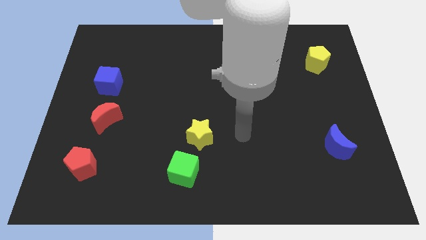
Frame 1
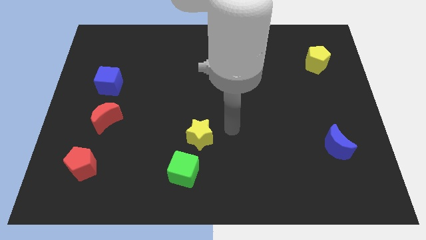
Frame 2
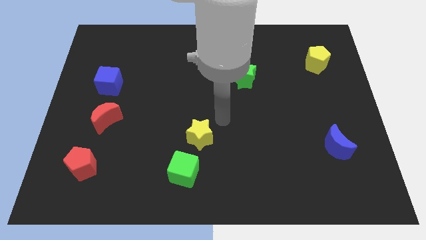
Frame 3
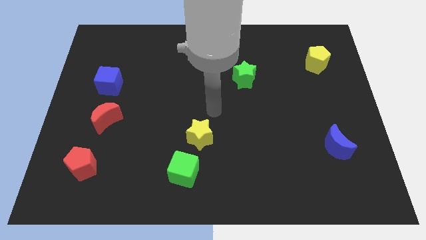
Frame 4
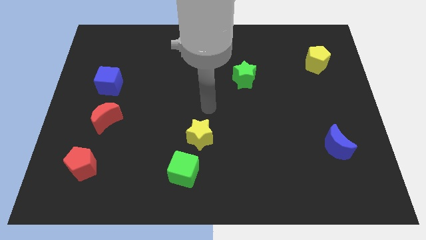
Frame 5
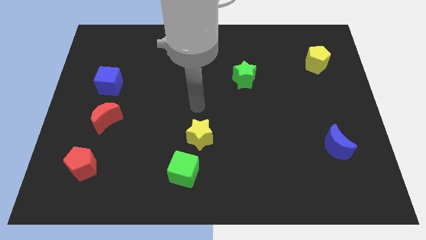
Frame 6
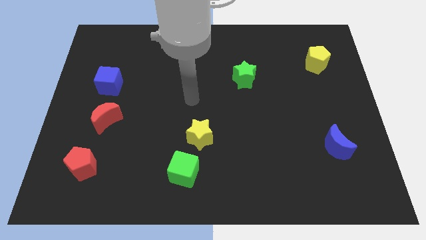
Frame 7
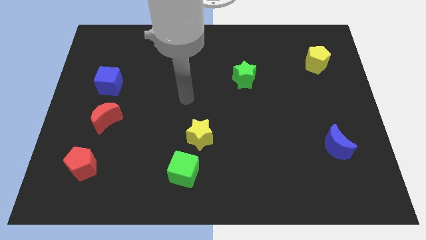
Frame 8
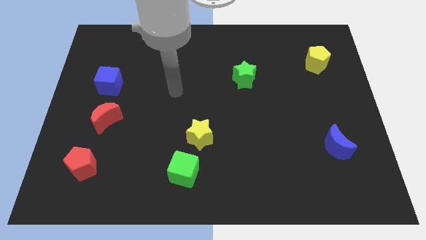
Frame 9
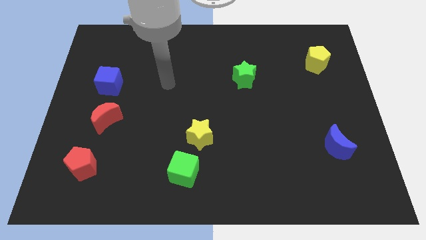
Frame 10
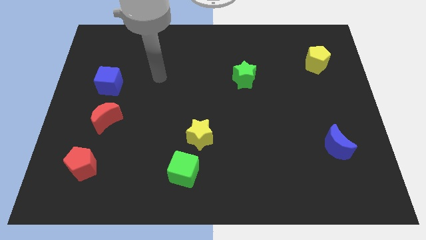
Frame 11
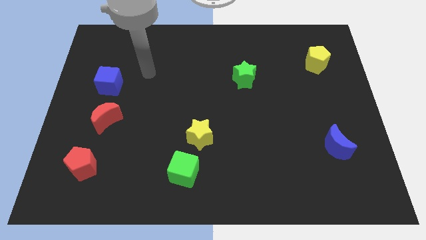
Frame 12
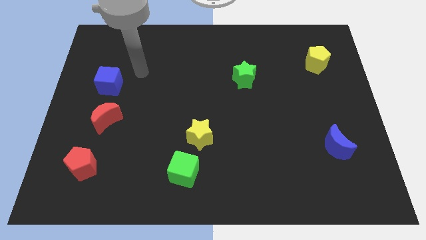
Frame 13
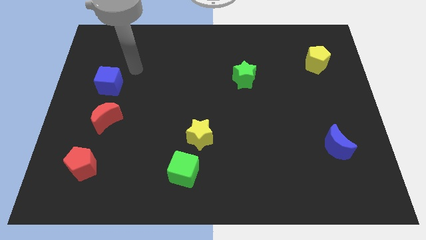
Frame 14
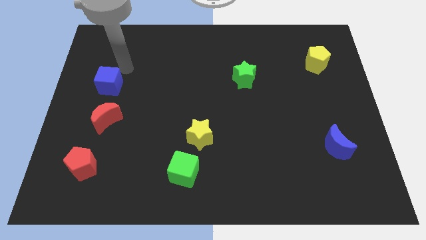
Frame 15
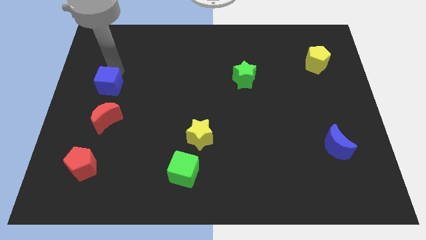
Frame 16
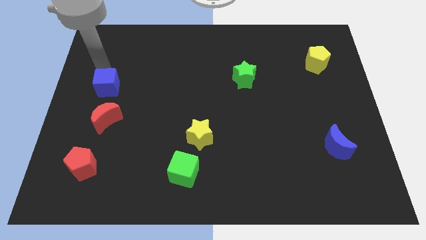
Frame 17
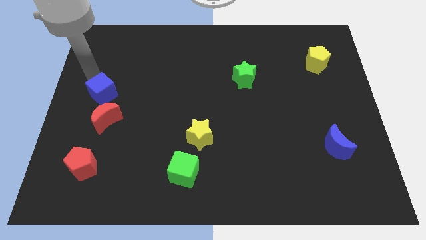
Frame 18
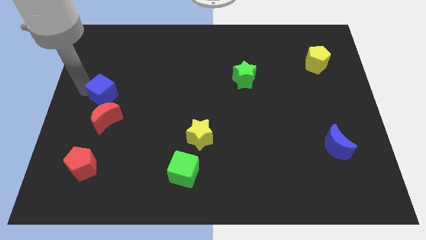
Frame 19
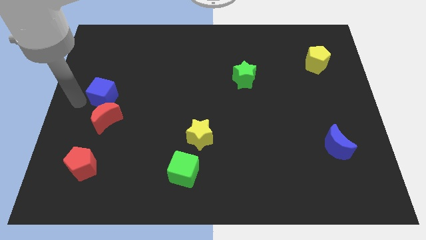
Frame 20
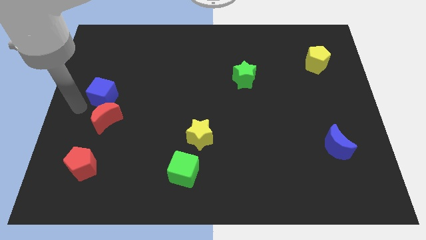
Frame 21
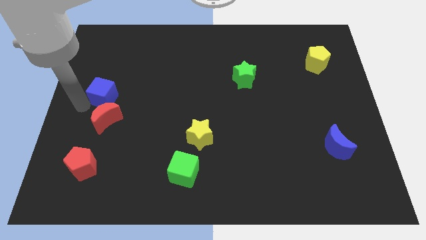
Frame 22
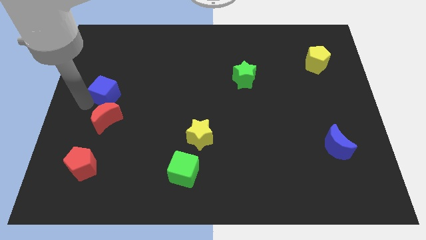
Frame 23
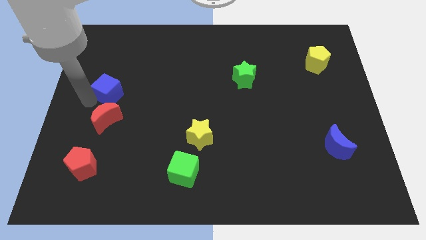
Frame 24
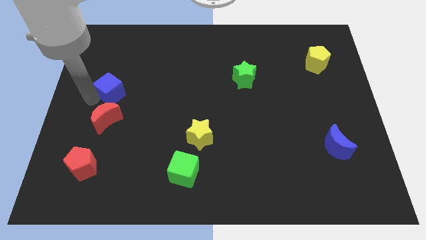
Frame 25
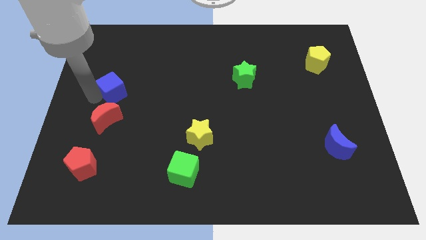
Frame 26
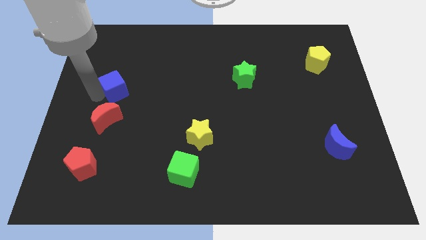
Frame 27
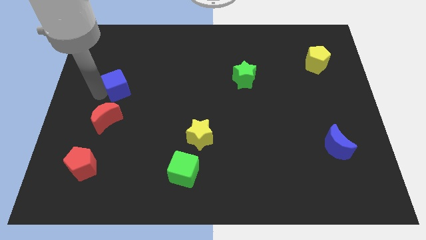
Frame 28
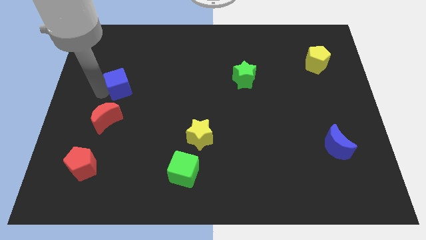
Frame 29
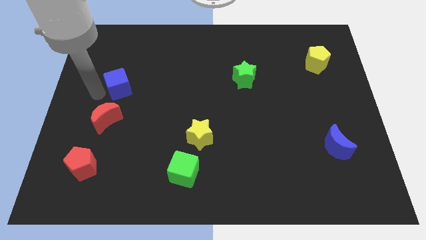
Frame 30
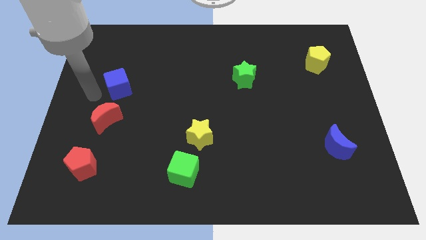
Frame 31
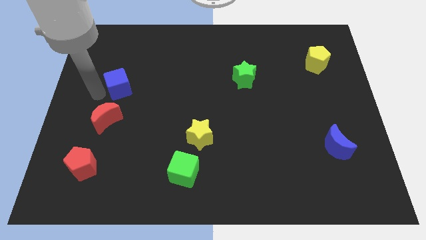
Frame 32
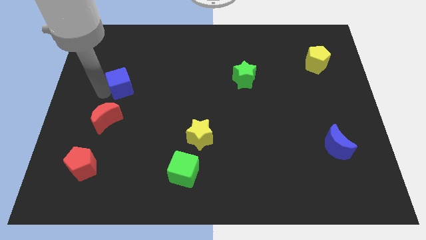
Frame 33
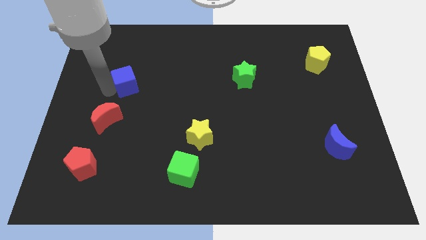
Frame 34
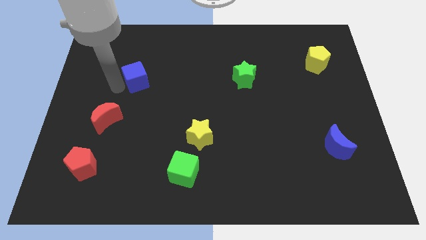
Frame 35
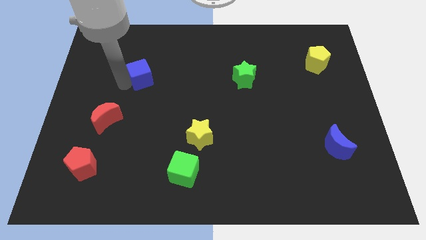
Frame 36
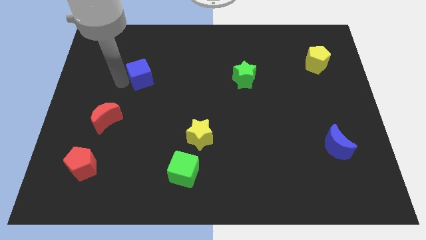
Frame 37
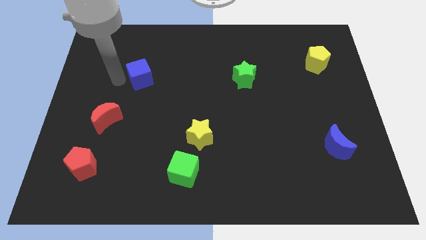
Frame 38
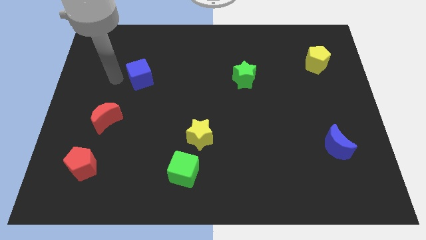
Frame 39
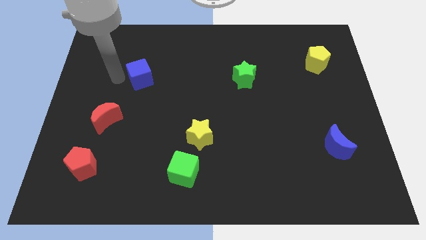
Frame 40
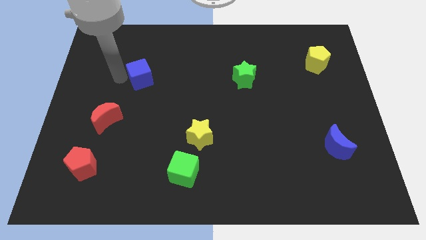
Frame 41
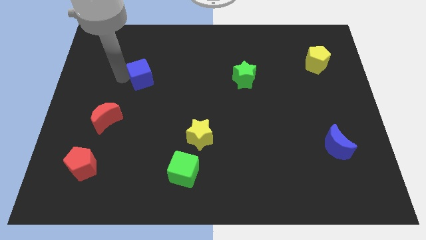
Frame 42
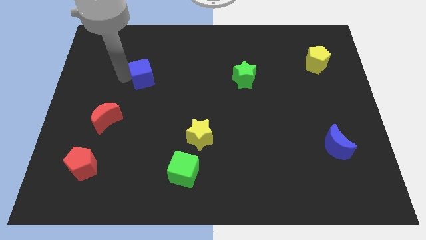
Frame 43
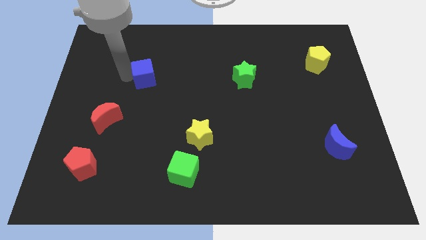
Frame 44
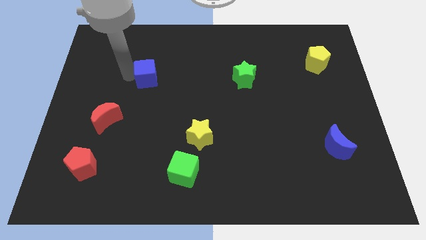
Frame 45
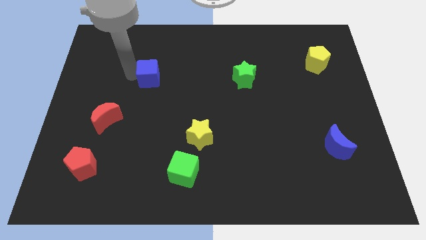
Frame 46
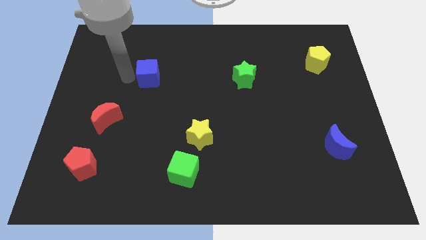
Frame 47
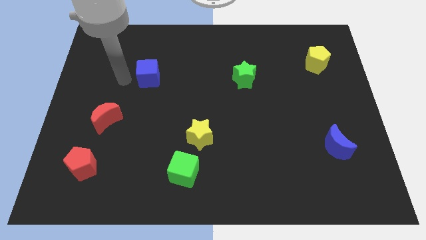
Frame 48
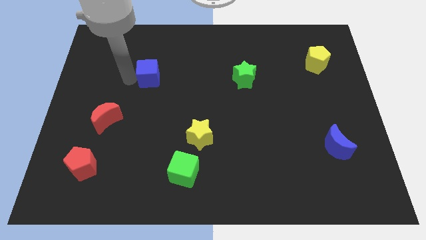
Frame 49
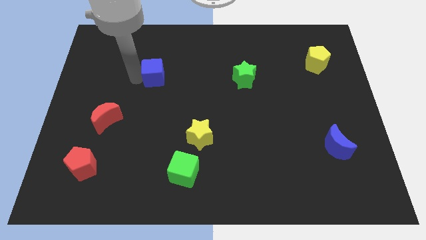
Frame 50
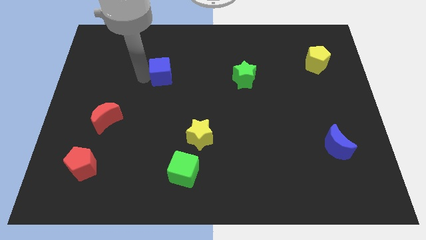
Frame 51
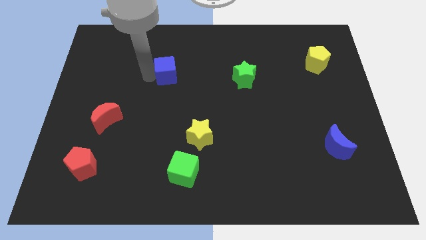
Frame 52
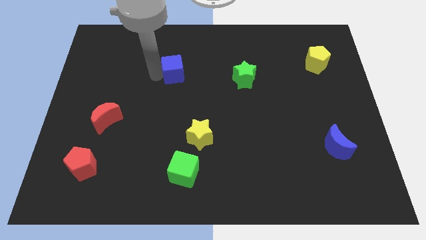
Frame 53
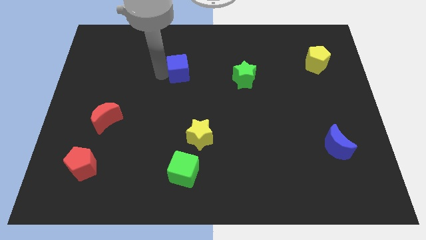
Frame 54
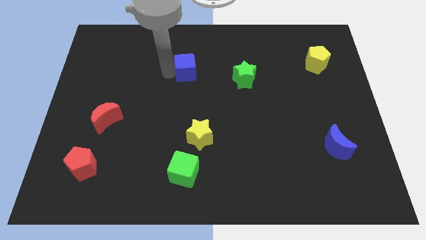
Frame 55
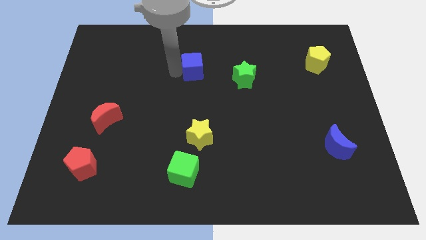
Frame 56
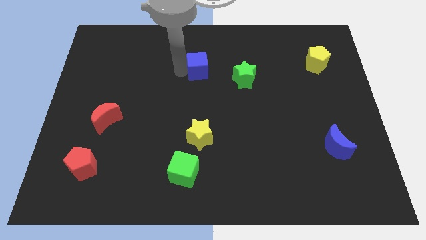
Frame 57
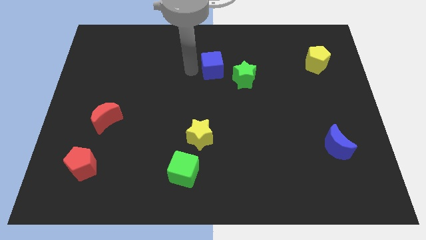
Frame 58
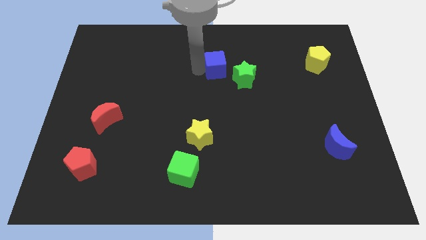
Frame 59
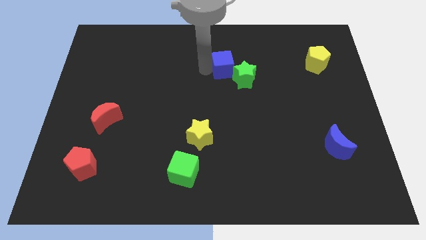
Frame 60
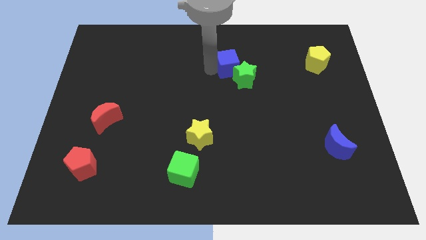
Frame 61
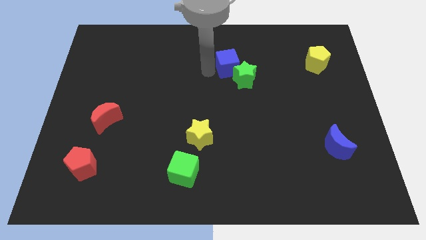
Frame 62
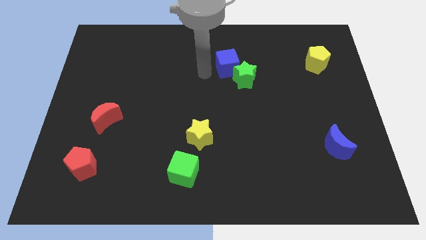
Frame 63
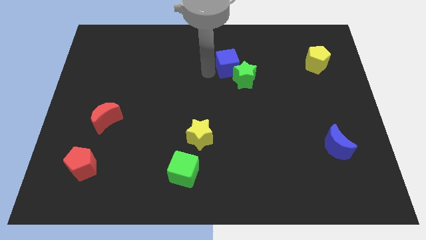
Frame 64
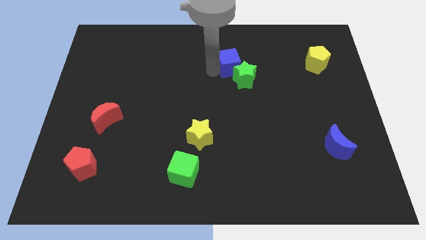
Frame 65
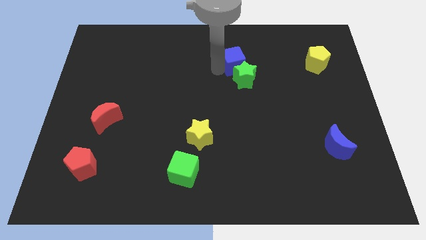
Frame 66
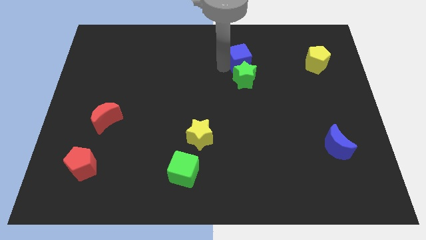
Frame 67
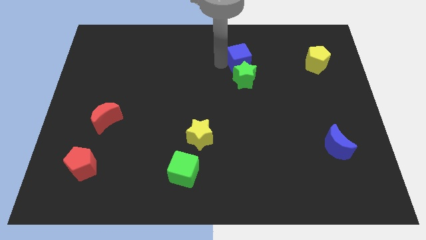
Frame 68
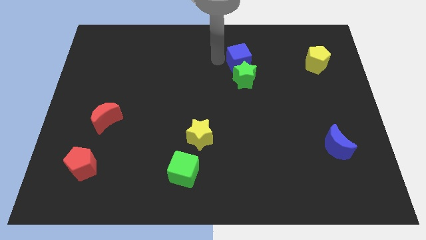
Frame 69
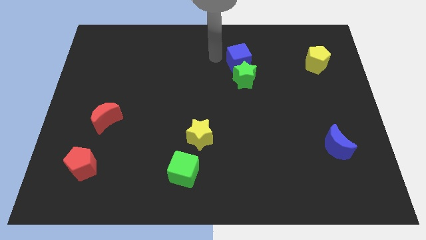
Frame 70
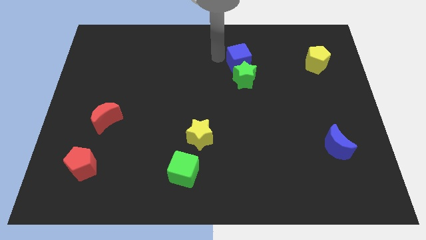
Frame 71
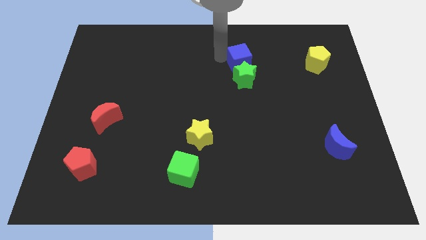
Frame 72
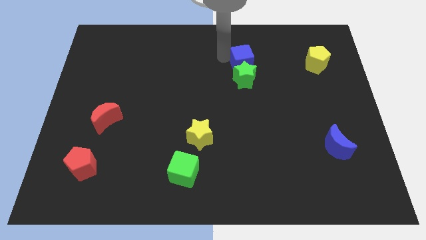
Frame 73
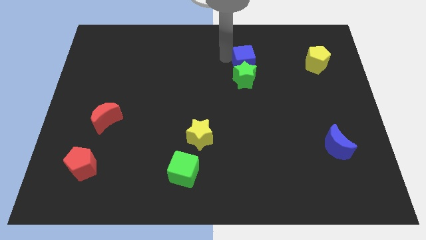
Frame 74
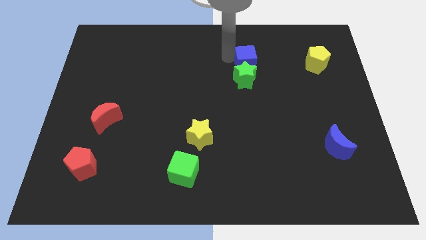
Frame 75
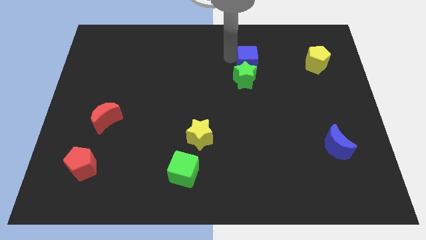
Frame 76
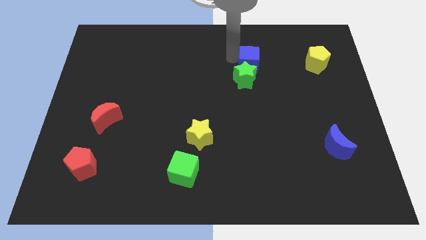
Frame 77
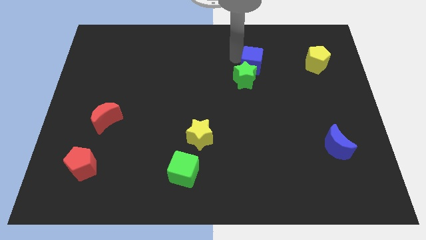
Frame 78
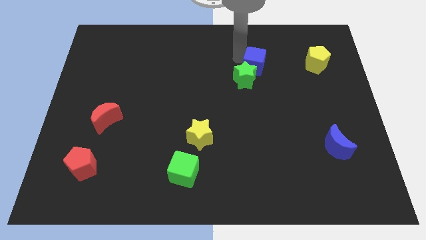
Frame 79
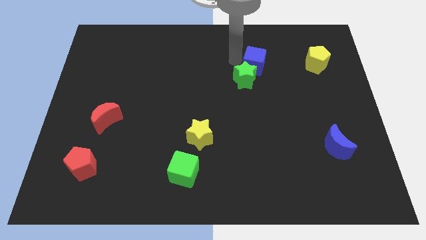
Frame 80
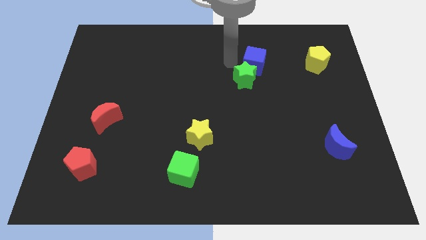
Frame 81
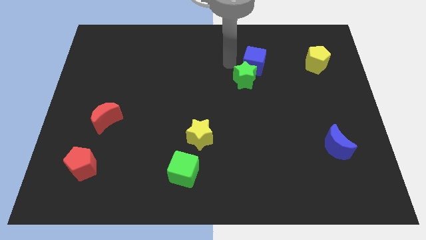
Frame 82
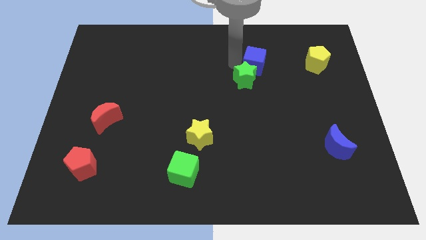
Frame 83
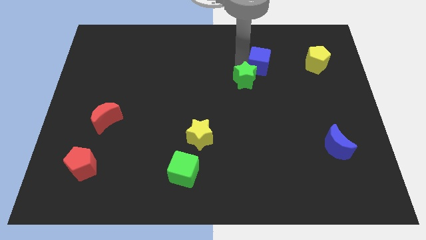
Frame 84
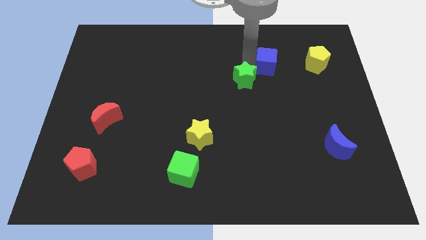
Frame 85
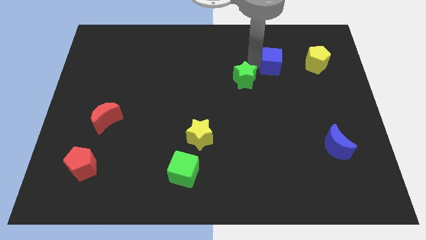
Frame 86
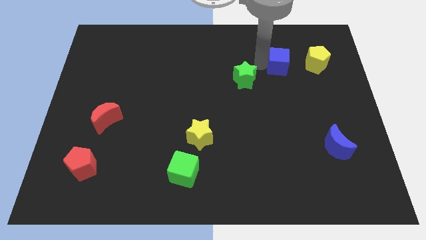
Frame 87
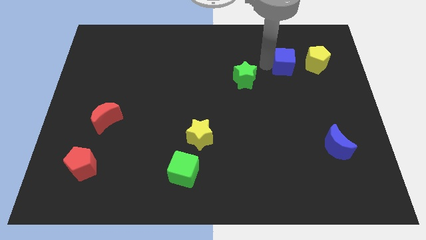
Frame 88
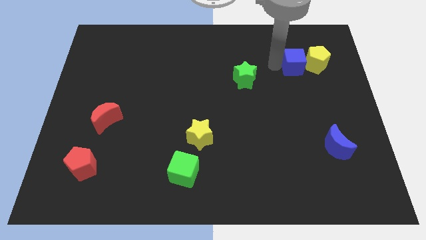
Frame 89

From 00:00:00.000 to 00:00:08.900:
slide the blue cube next to the yellow pentagon
